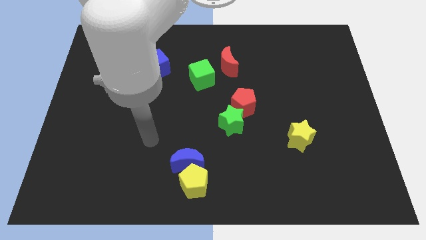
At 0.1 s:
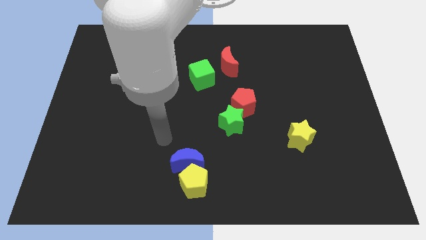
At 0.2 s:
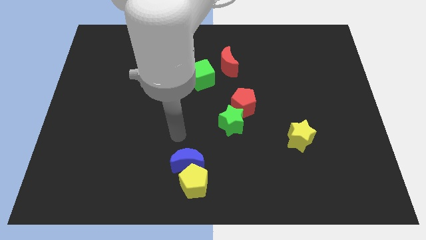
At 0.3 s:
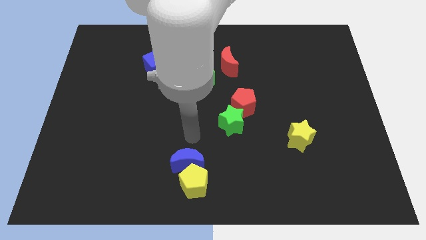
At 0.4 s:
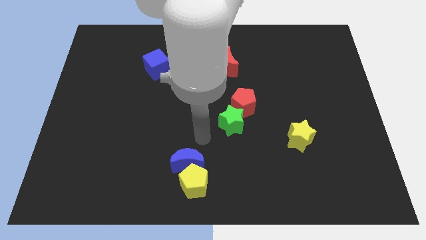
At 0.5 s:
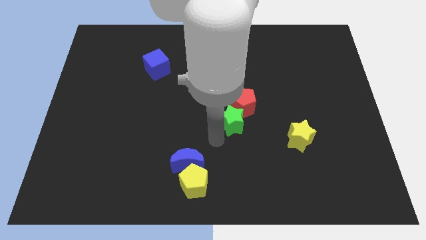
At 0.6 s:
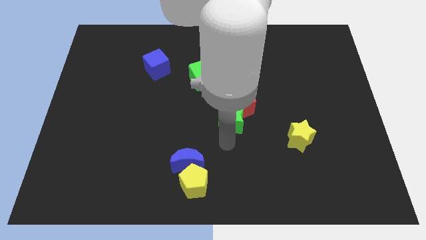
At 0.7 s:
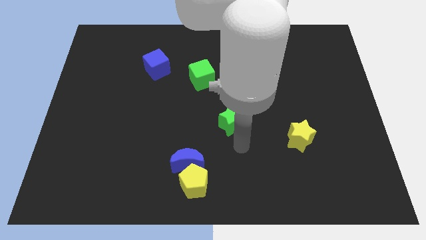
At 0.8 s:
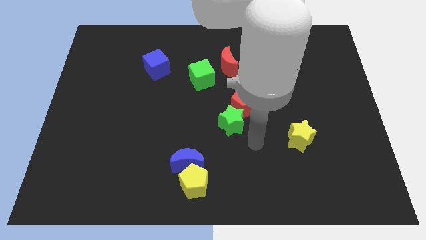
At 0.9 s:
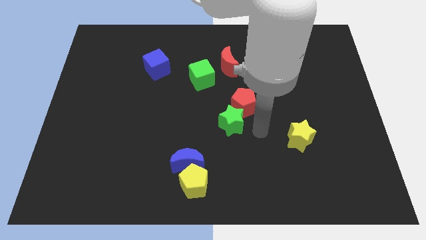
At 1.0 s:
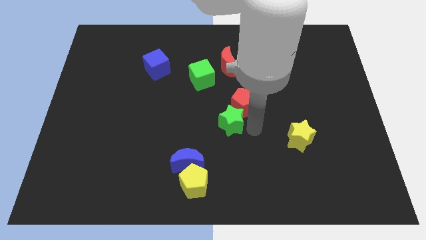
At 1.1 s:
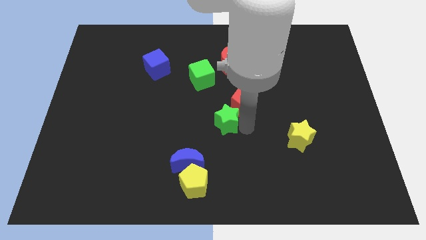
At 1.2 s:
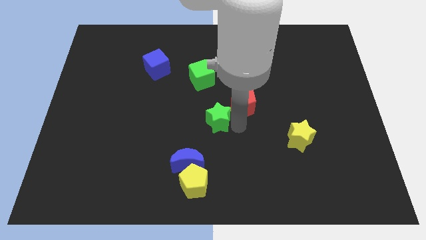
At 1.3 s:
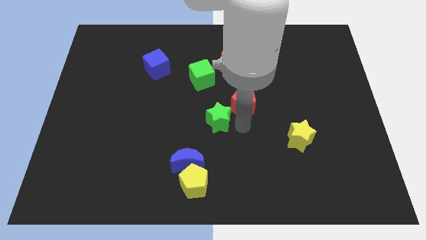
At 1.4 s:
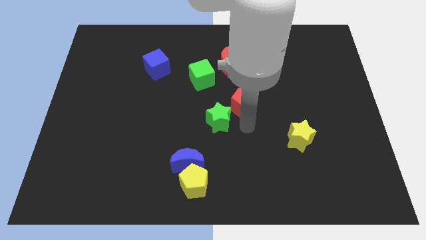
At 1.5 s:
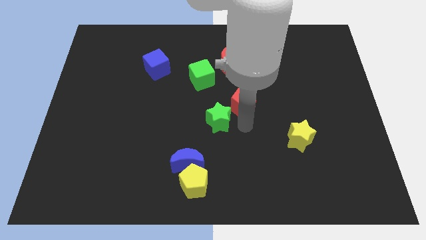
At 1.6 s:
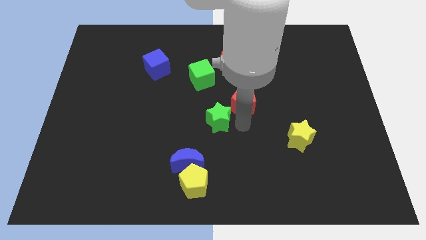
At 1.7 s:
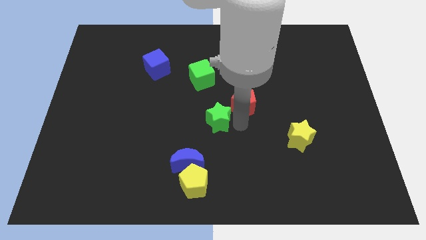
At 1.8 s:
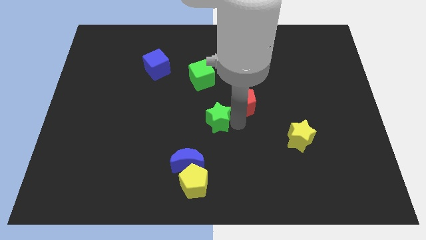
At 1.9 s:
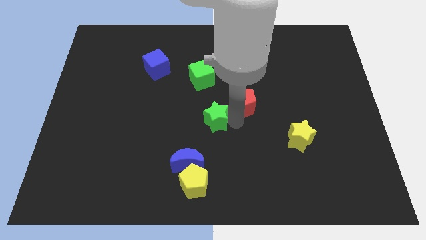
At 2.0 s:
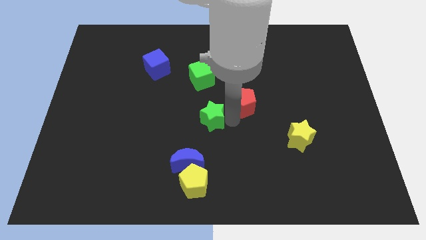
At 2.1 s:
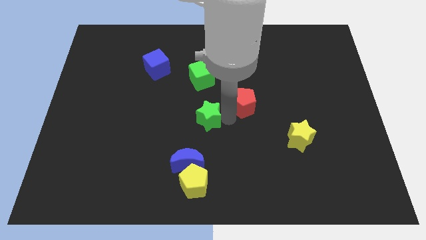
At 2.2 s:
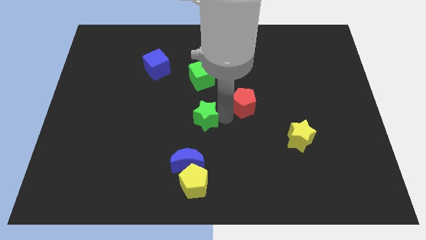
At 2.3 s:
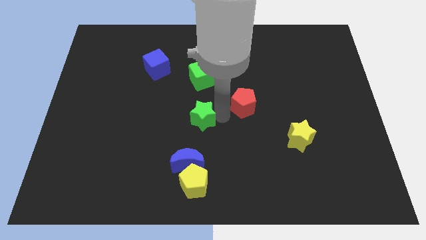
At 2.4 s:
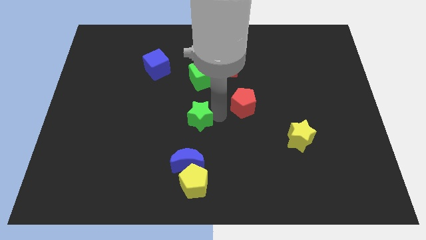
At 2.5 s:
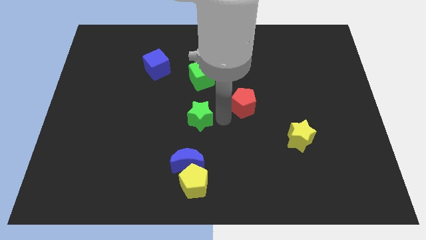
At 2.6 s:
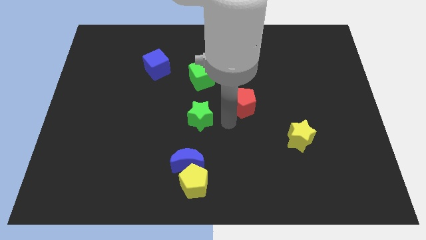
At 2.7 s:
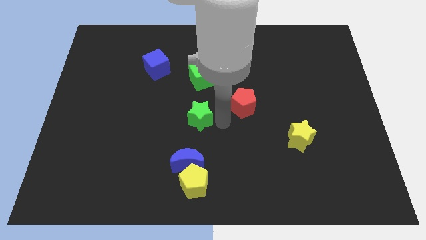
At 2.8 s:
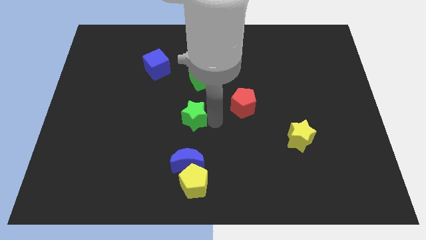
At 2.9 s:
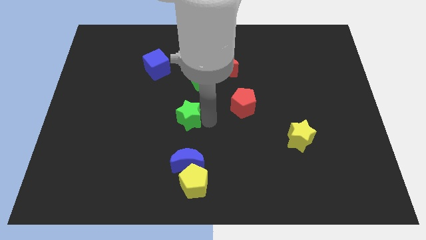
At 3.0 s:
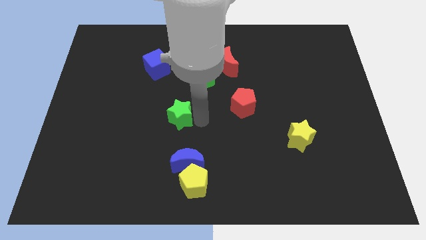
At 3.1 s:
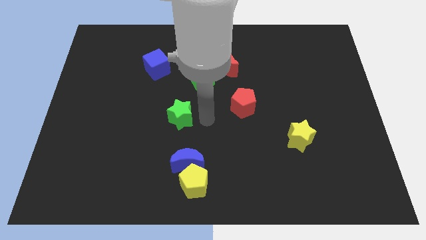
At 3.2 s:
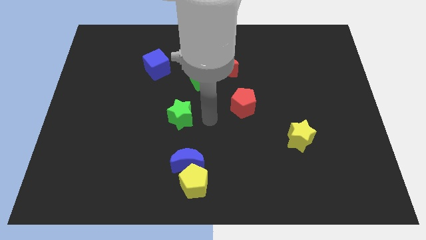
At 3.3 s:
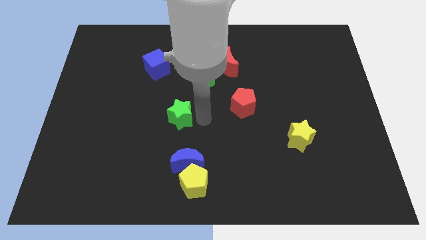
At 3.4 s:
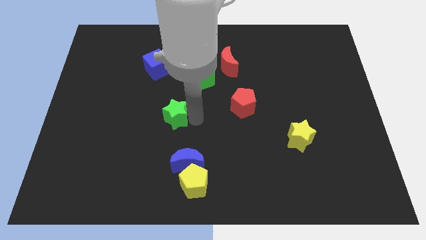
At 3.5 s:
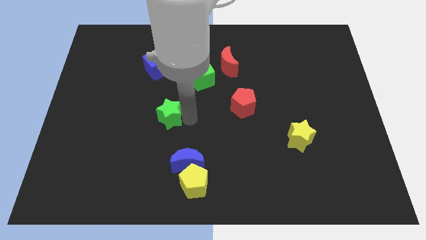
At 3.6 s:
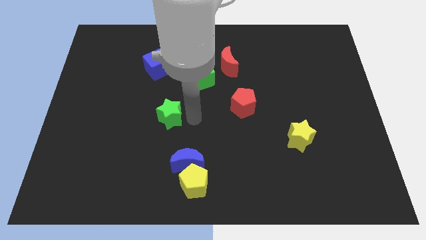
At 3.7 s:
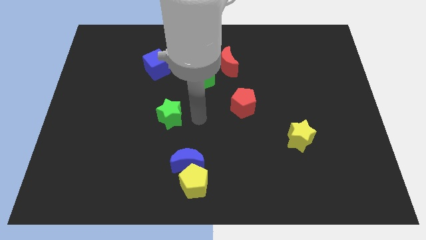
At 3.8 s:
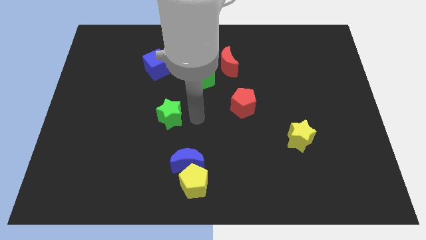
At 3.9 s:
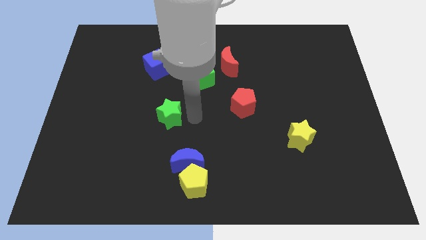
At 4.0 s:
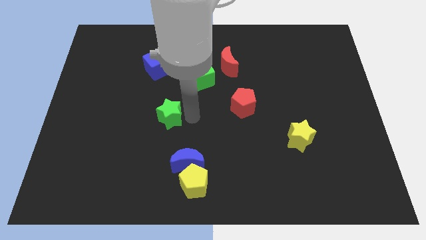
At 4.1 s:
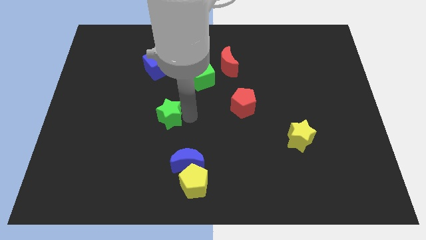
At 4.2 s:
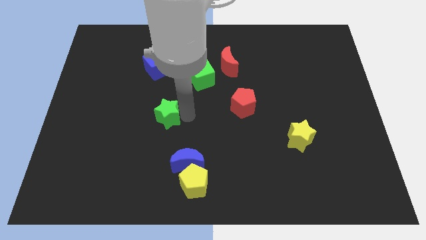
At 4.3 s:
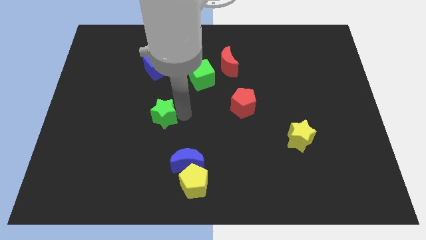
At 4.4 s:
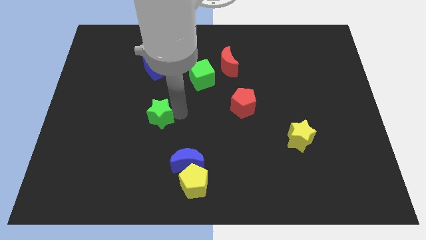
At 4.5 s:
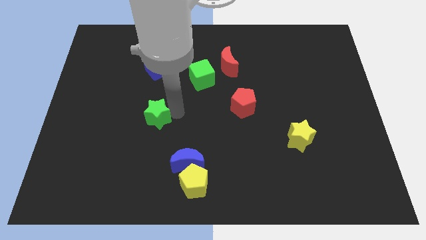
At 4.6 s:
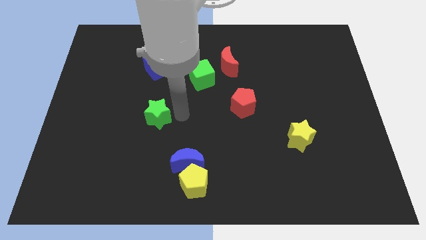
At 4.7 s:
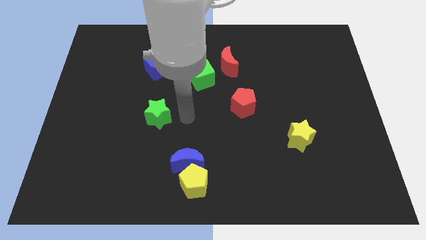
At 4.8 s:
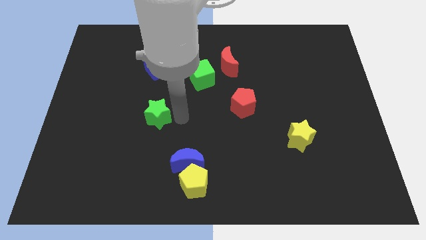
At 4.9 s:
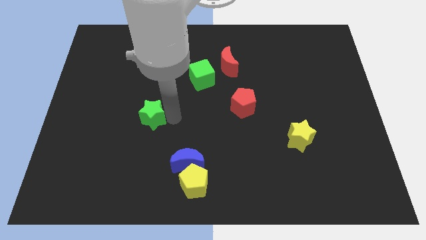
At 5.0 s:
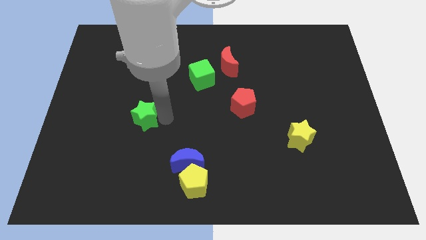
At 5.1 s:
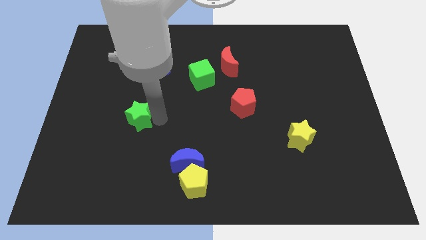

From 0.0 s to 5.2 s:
slide the green star to the left

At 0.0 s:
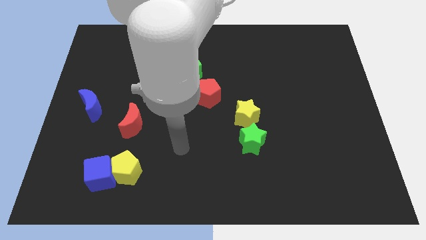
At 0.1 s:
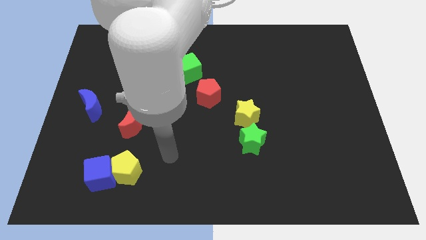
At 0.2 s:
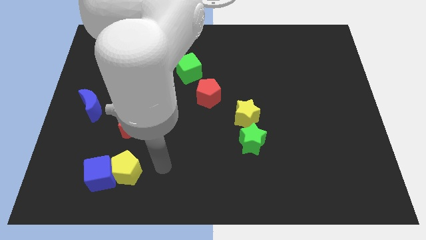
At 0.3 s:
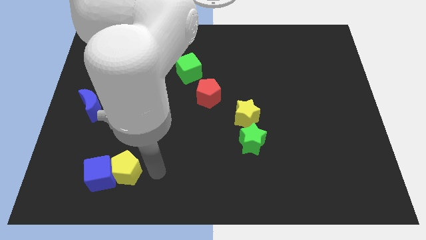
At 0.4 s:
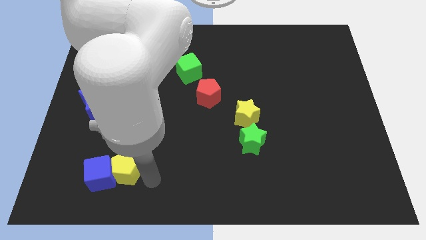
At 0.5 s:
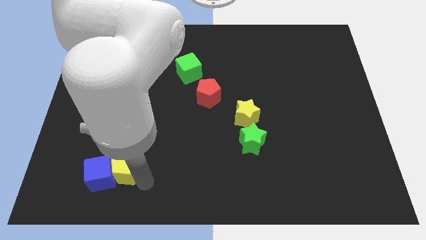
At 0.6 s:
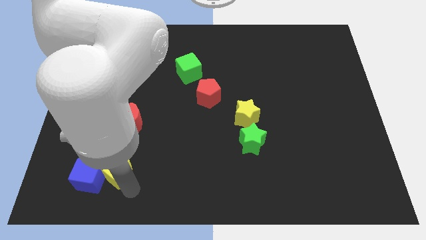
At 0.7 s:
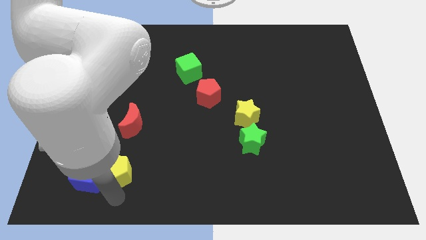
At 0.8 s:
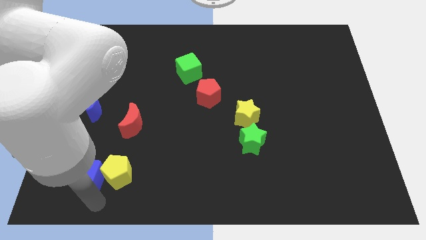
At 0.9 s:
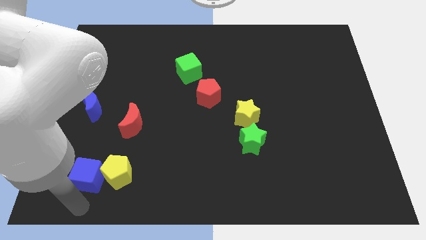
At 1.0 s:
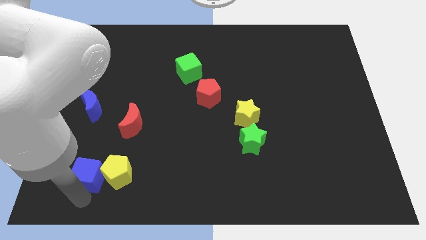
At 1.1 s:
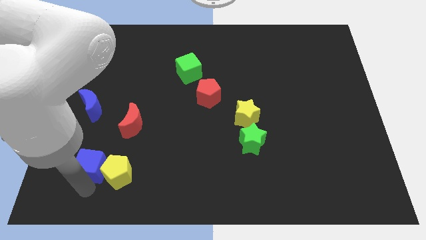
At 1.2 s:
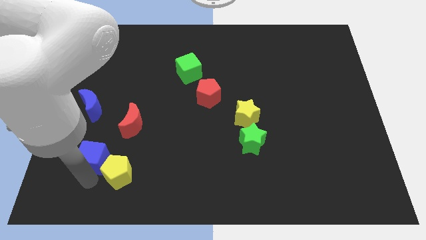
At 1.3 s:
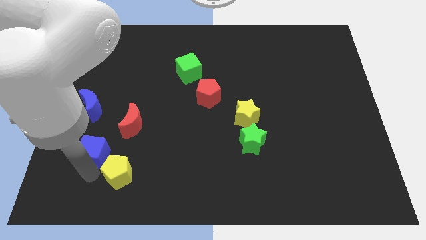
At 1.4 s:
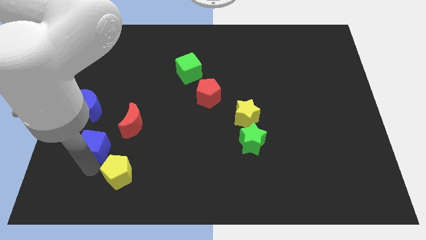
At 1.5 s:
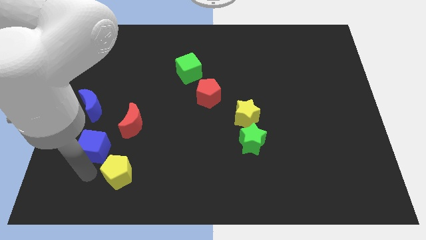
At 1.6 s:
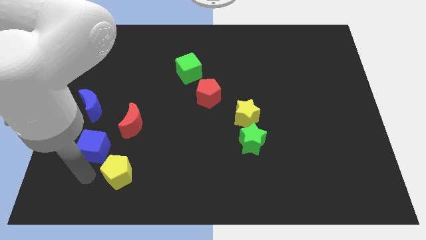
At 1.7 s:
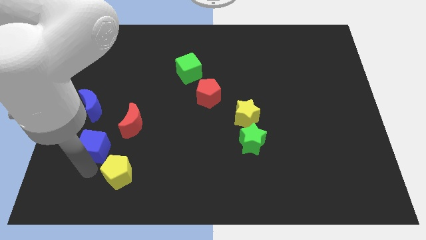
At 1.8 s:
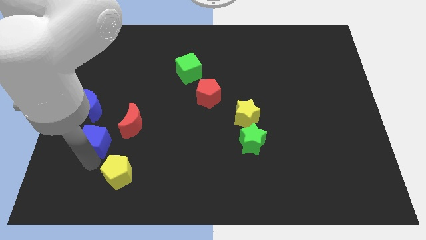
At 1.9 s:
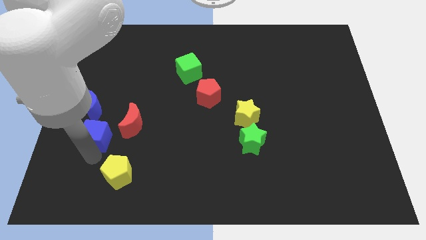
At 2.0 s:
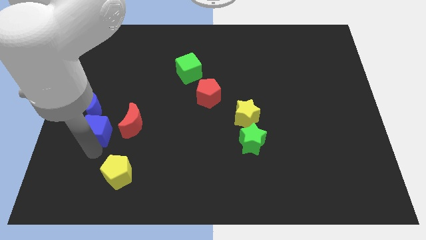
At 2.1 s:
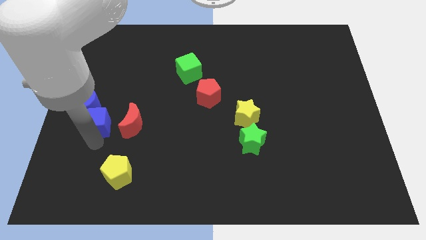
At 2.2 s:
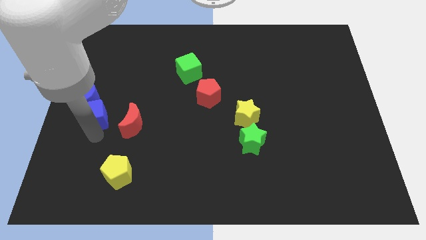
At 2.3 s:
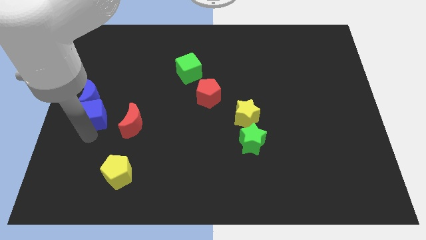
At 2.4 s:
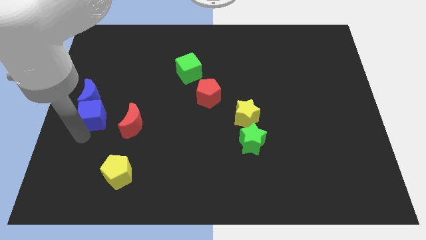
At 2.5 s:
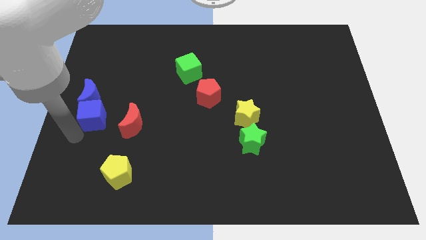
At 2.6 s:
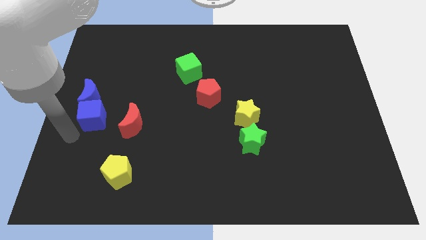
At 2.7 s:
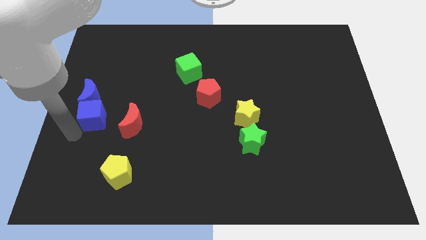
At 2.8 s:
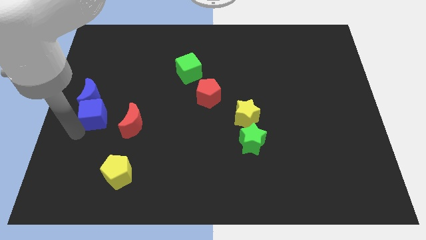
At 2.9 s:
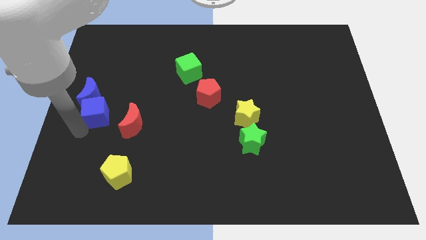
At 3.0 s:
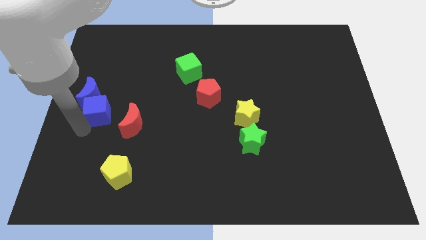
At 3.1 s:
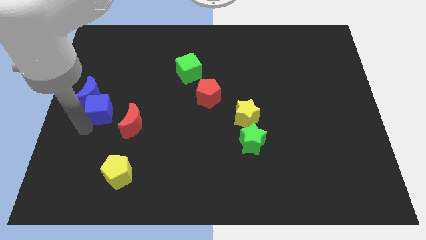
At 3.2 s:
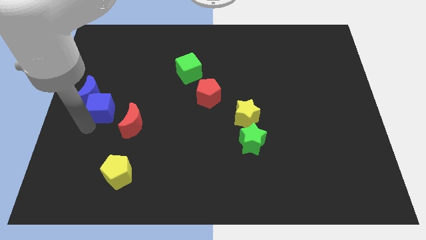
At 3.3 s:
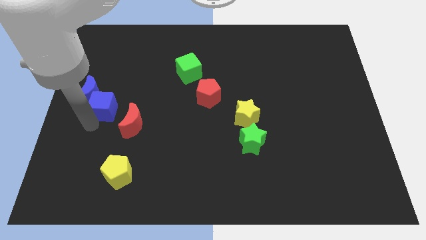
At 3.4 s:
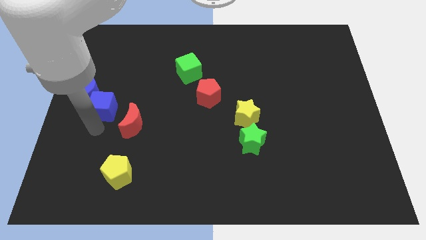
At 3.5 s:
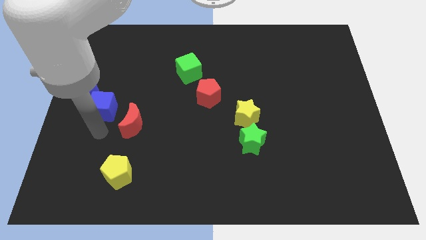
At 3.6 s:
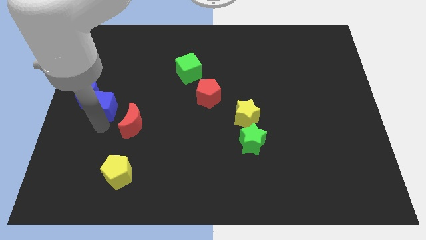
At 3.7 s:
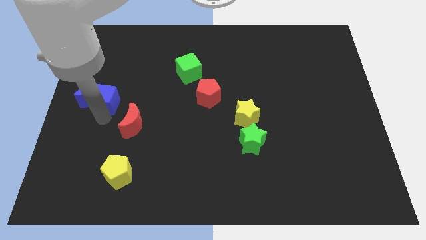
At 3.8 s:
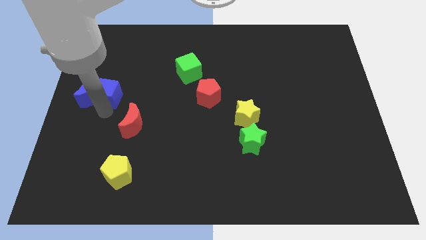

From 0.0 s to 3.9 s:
slide the blue cube up
